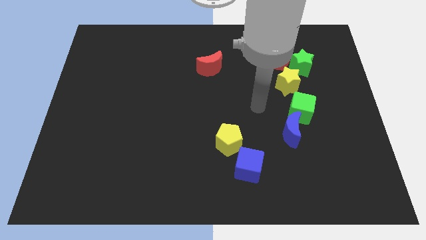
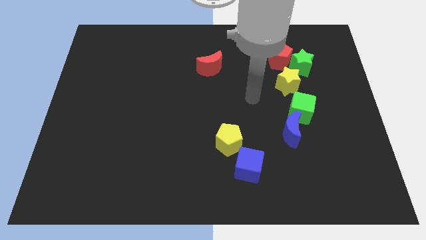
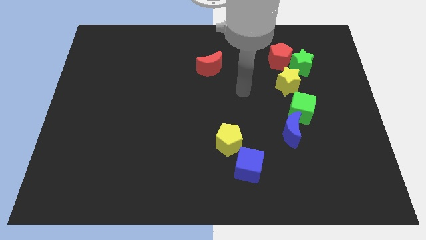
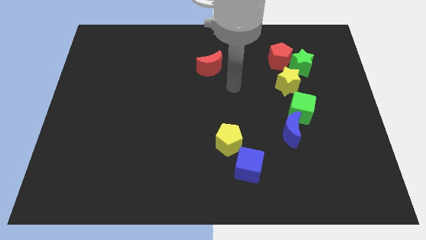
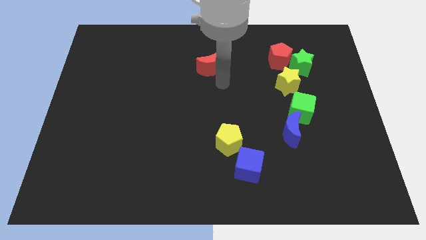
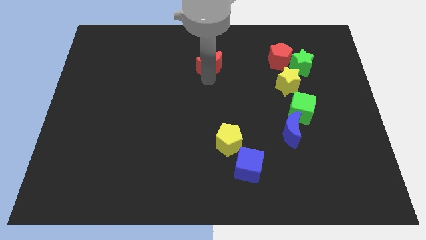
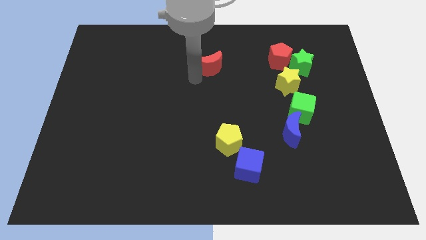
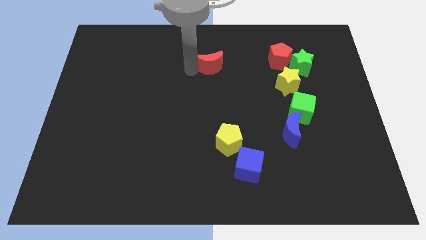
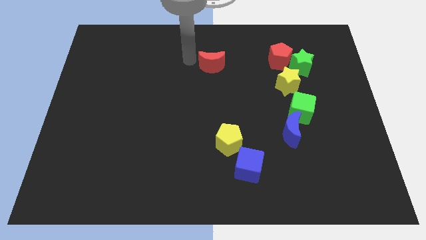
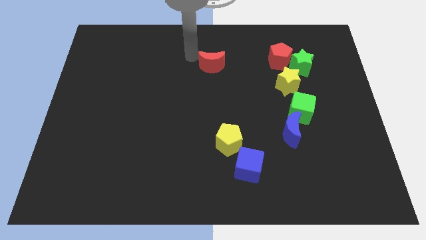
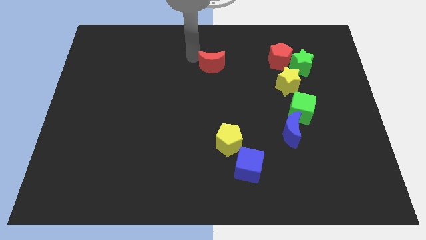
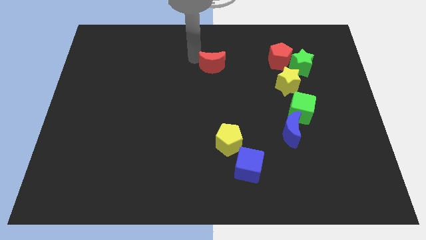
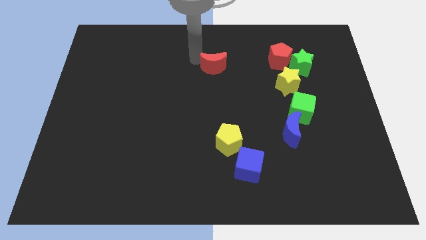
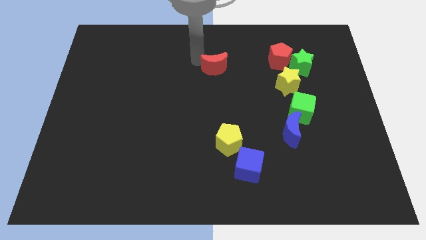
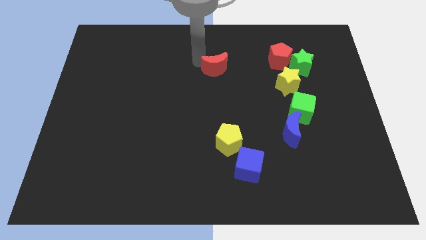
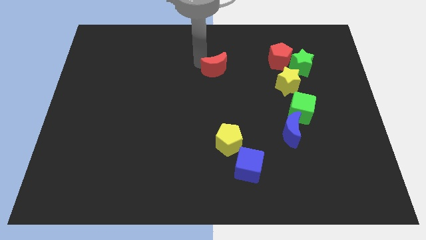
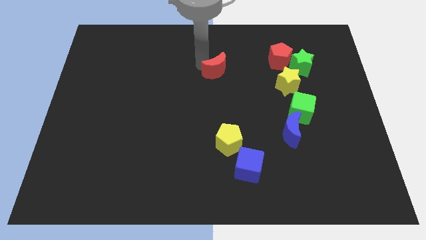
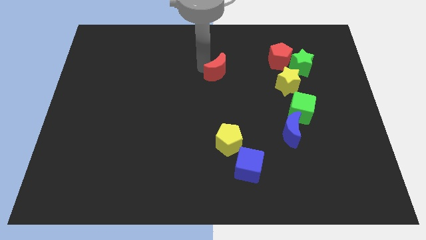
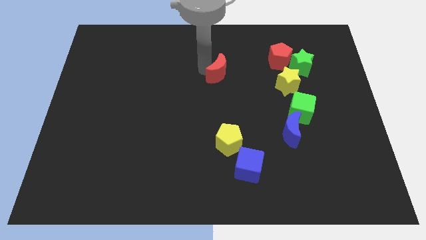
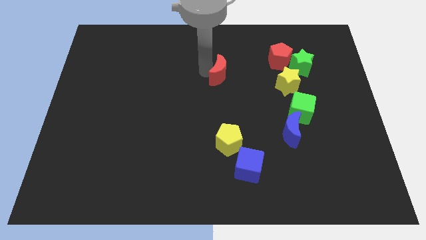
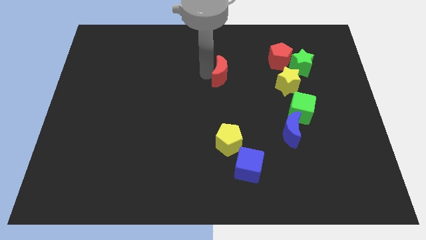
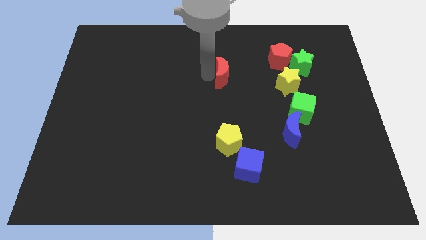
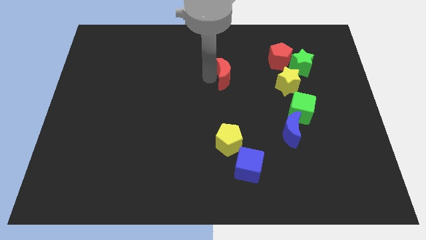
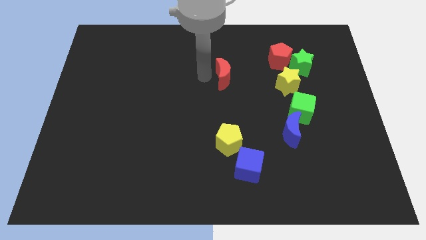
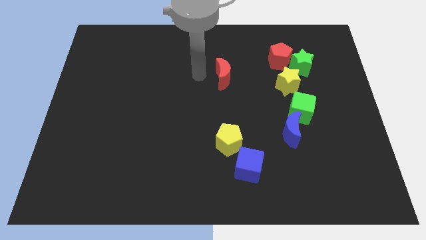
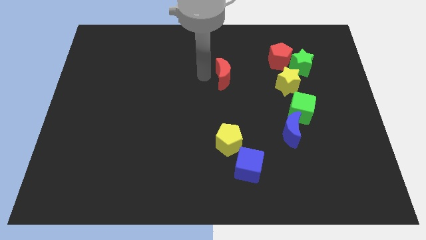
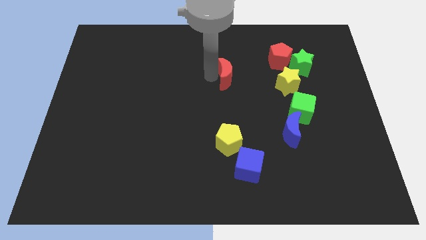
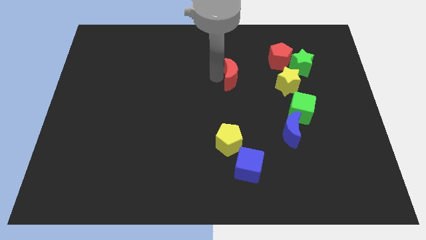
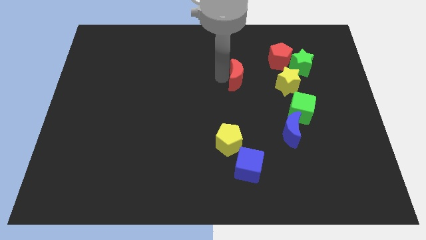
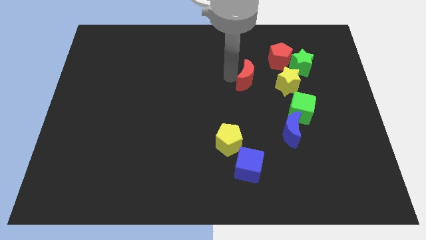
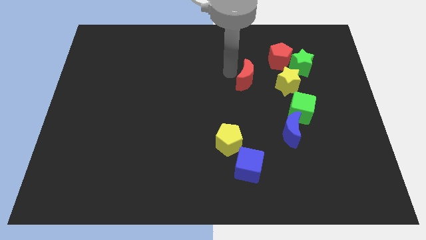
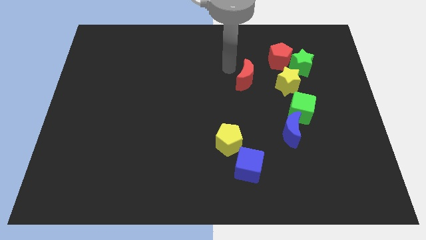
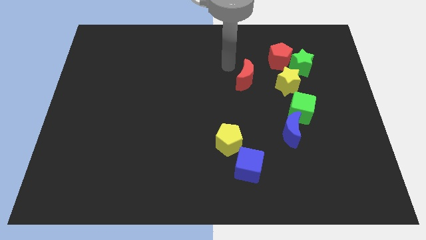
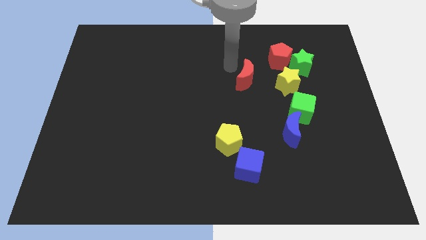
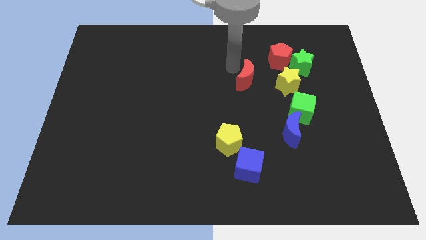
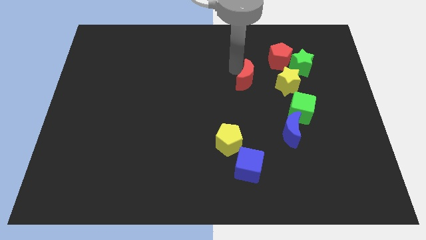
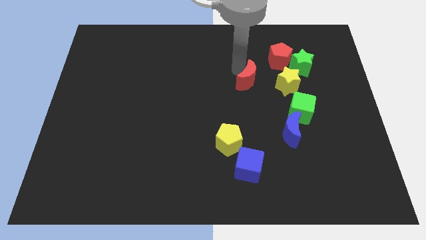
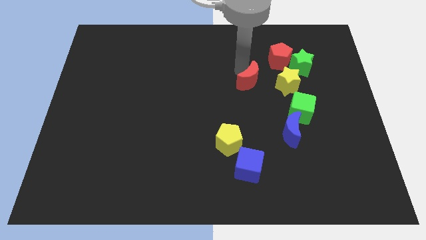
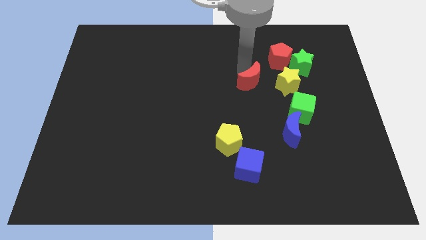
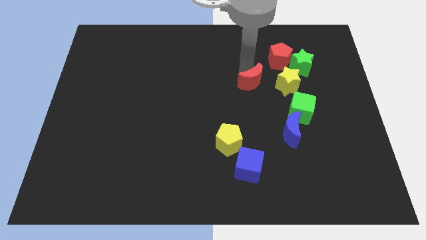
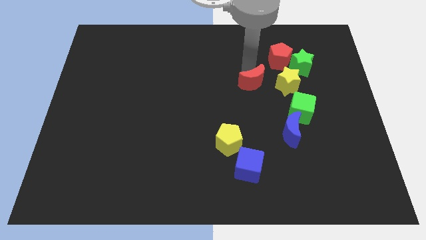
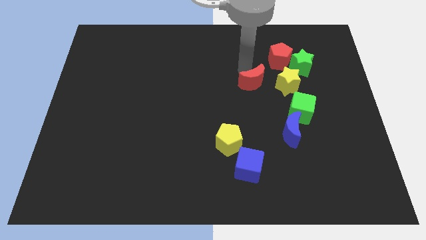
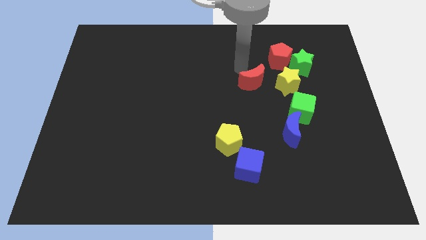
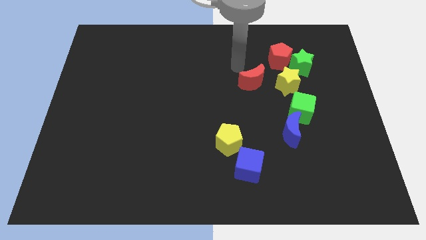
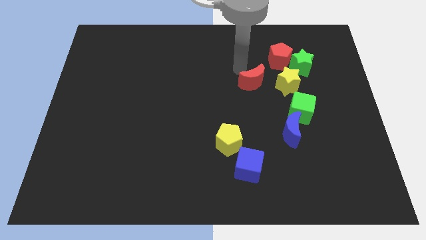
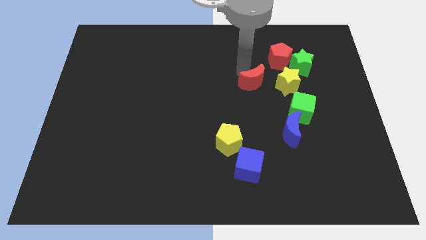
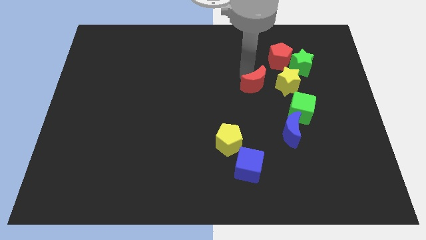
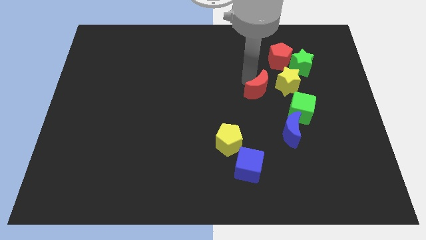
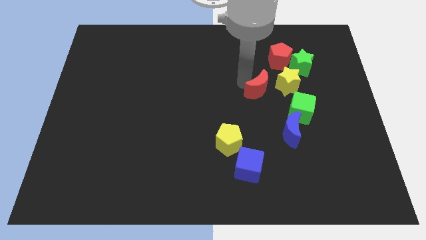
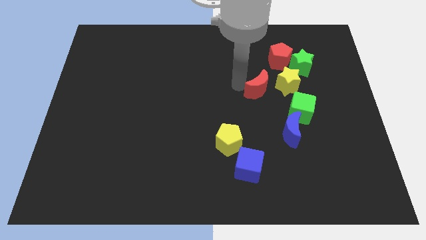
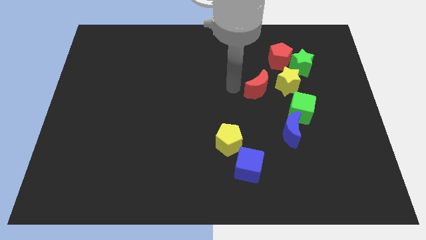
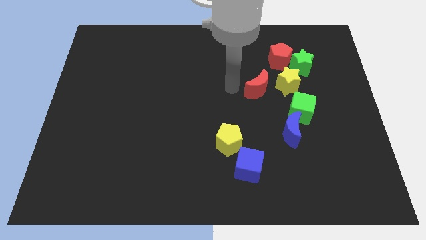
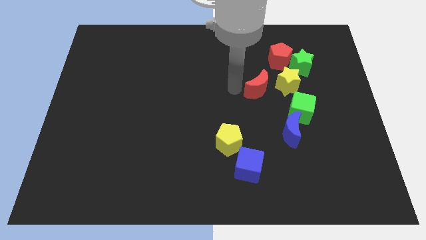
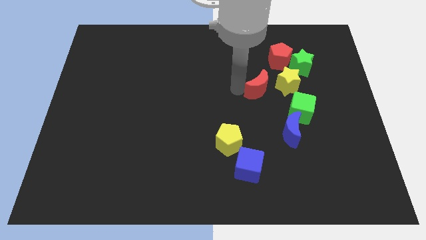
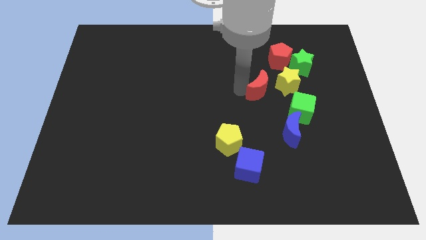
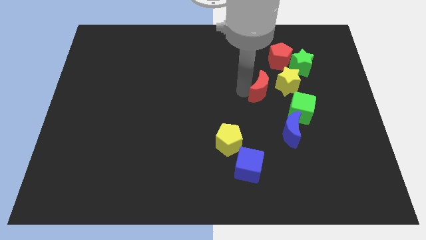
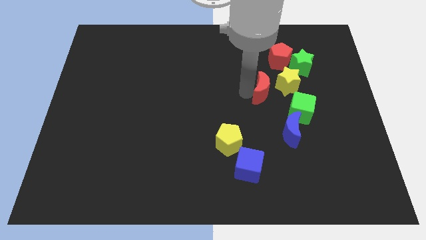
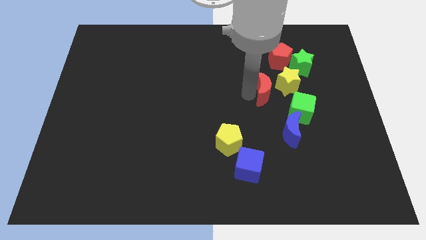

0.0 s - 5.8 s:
put the red moon to the bottom of the red pentagon
